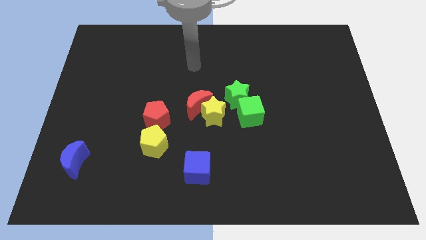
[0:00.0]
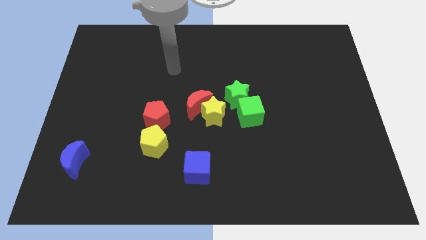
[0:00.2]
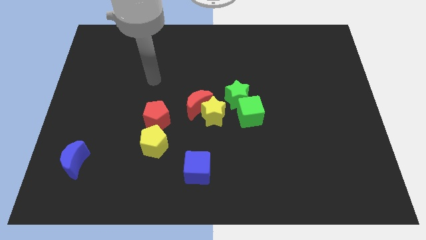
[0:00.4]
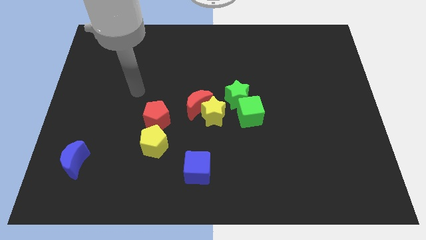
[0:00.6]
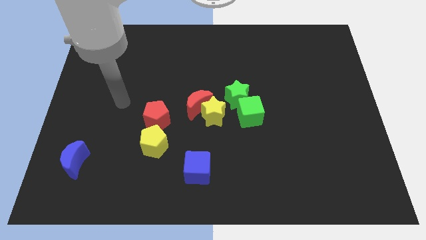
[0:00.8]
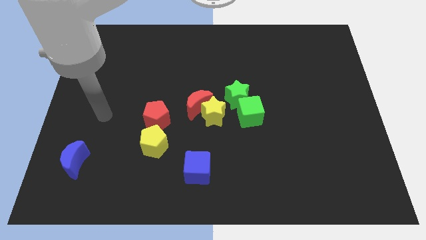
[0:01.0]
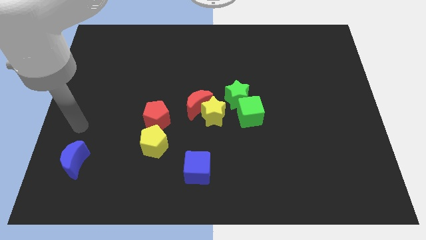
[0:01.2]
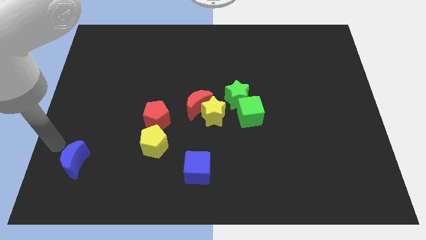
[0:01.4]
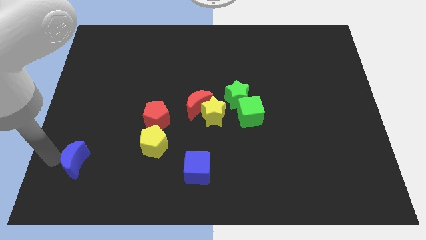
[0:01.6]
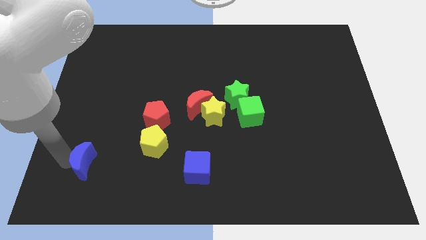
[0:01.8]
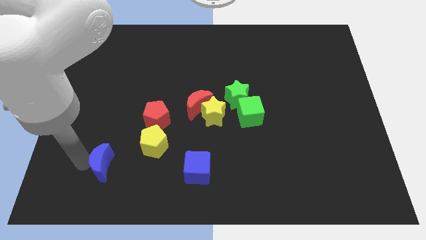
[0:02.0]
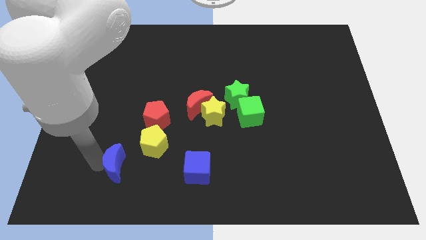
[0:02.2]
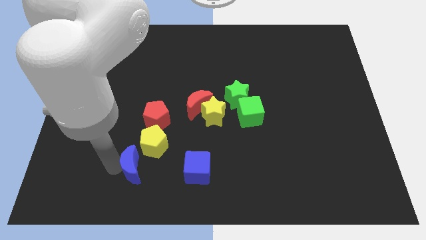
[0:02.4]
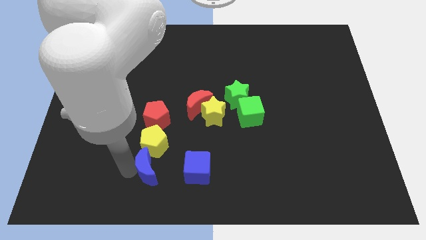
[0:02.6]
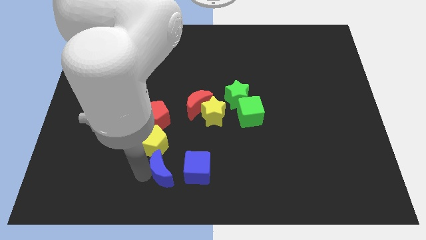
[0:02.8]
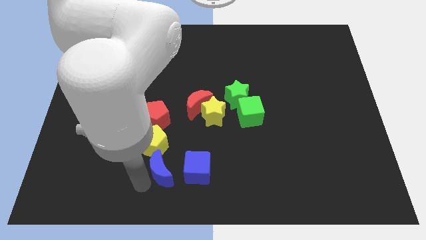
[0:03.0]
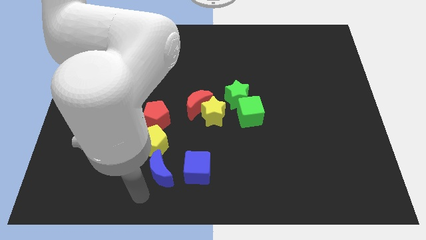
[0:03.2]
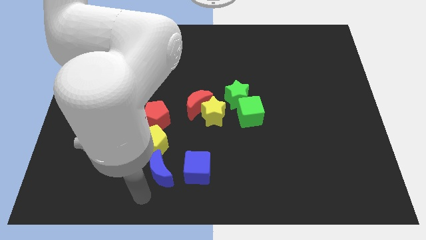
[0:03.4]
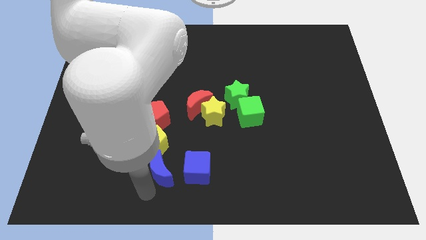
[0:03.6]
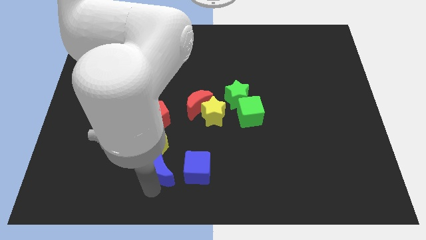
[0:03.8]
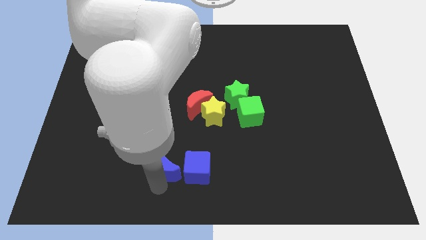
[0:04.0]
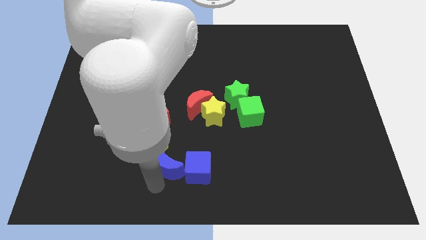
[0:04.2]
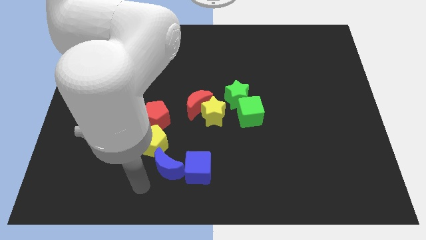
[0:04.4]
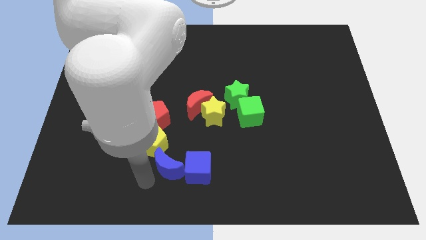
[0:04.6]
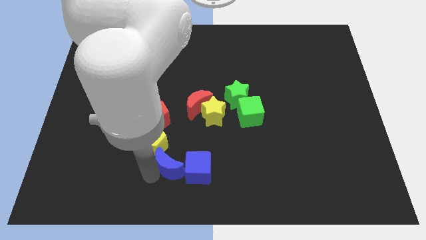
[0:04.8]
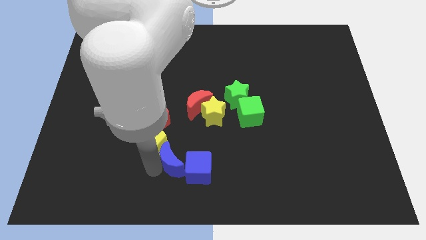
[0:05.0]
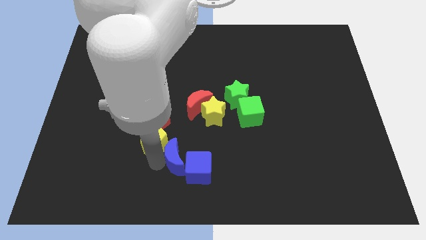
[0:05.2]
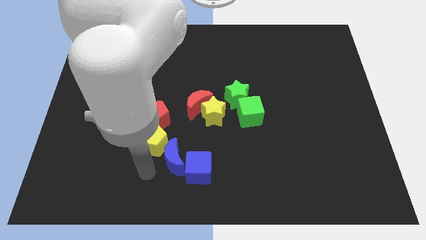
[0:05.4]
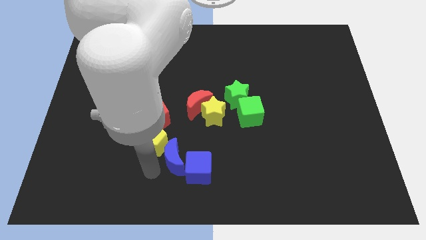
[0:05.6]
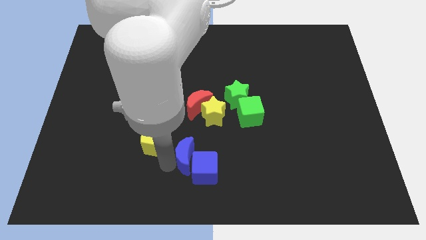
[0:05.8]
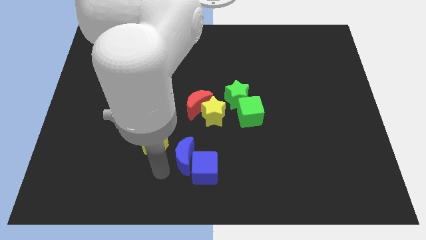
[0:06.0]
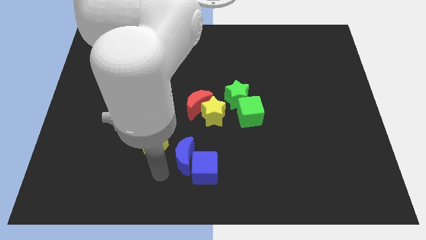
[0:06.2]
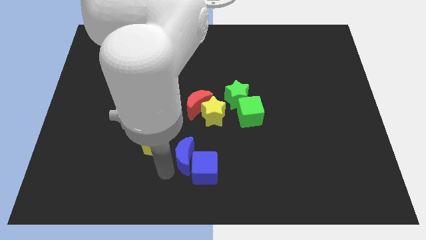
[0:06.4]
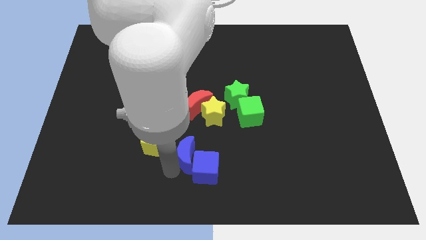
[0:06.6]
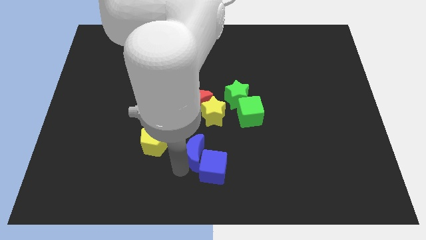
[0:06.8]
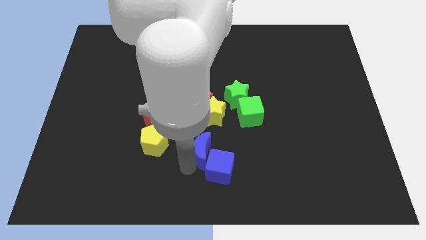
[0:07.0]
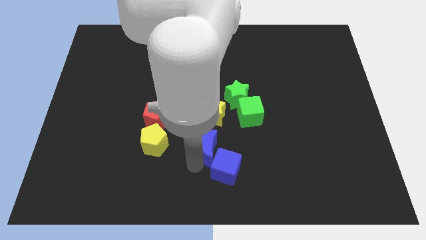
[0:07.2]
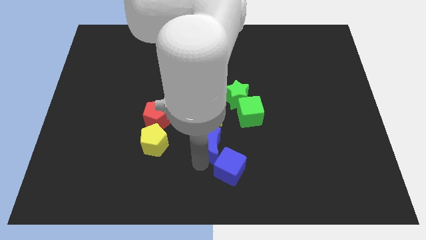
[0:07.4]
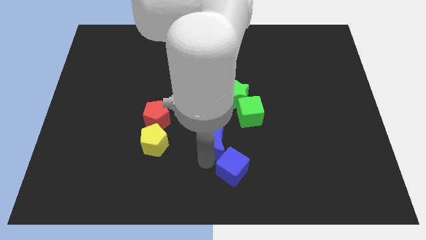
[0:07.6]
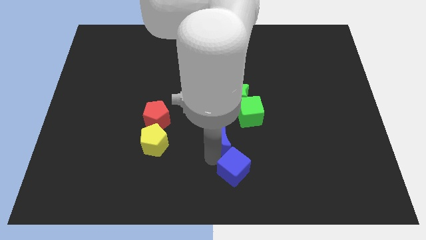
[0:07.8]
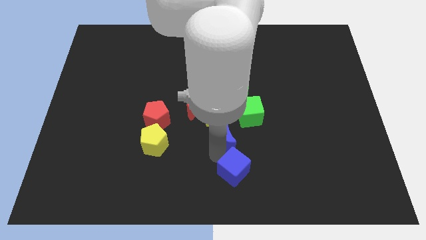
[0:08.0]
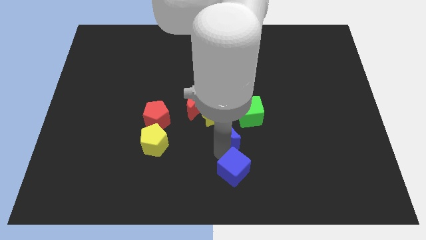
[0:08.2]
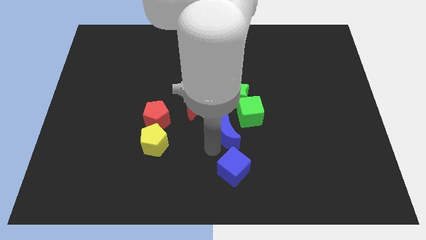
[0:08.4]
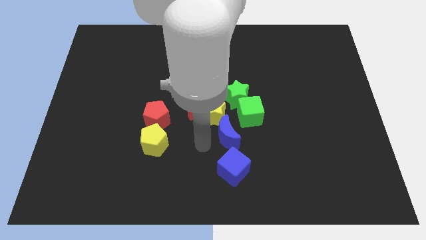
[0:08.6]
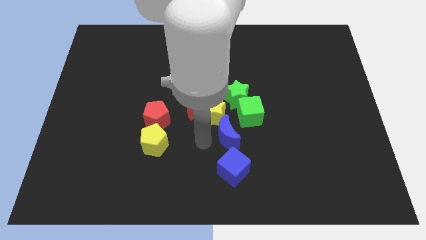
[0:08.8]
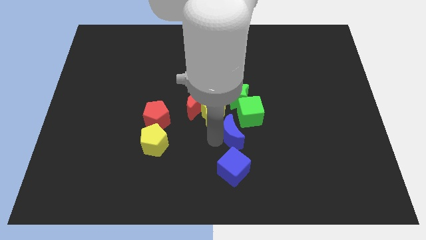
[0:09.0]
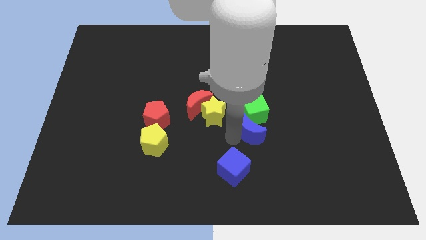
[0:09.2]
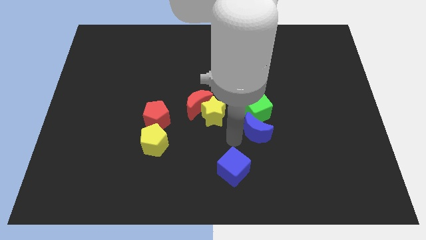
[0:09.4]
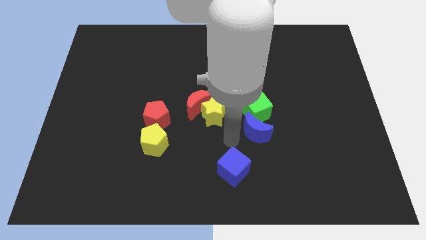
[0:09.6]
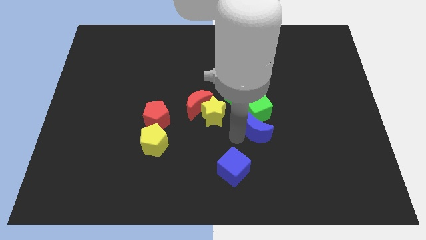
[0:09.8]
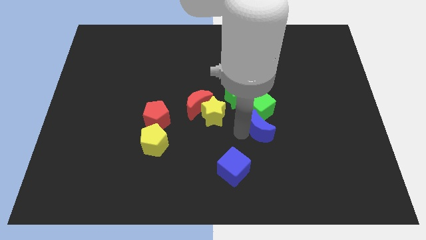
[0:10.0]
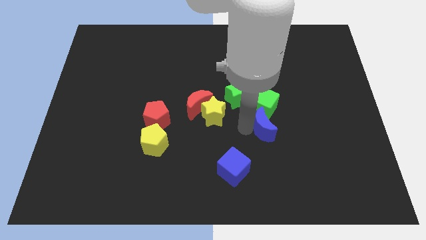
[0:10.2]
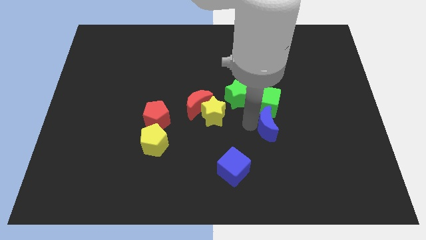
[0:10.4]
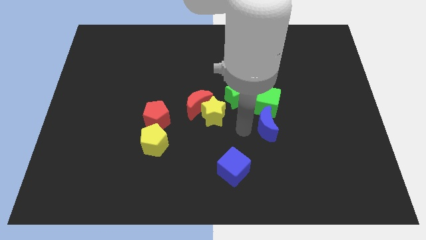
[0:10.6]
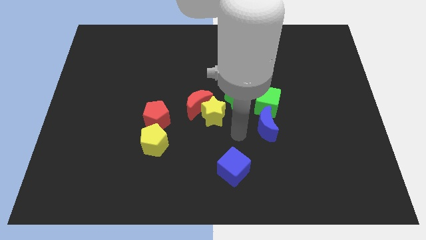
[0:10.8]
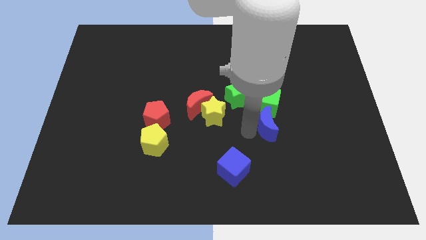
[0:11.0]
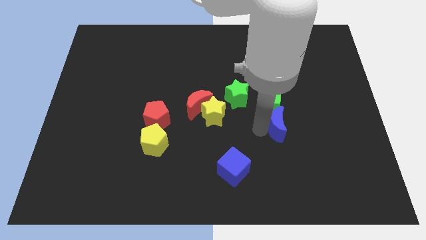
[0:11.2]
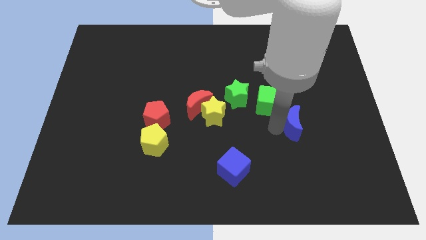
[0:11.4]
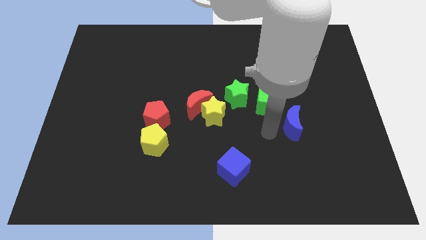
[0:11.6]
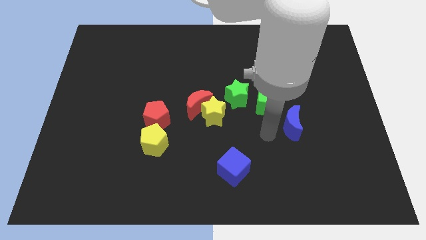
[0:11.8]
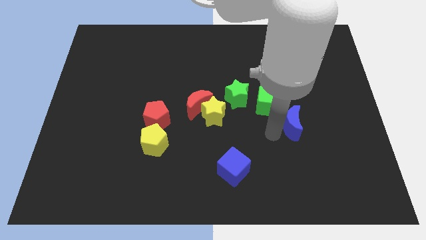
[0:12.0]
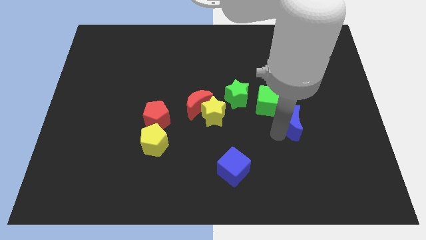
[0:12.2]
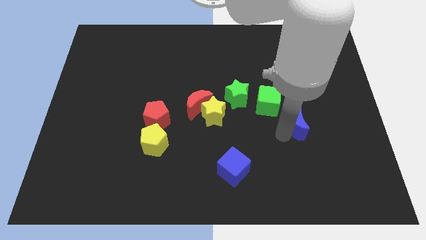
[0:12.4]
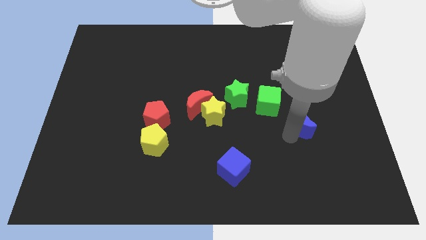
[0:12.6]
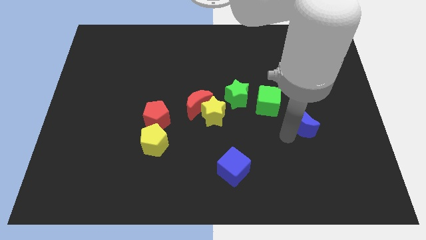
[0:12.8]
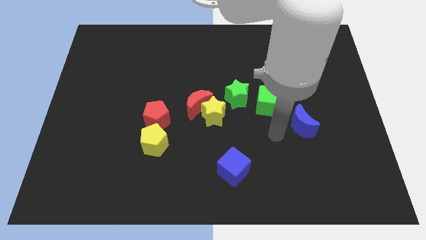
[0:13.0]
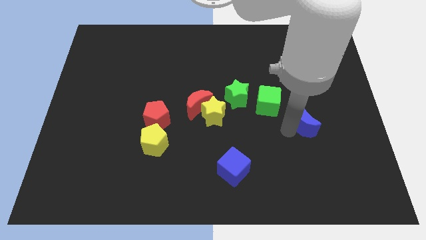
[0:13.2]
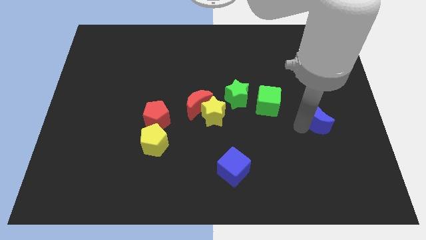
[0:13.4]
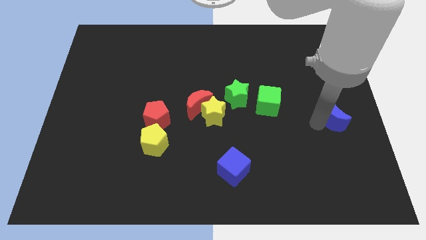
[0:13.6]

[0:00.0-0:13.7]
put the blue moon to the right side
